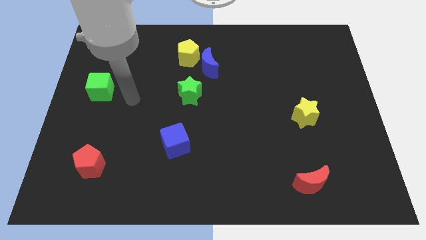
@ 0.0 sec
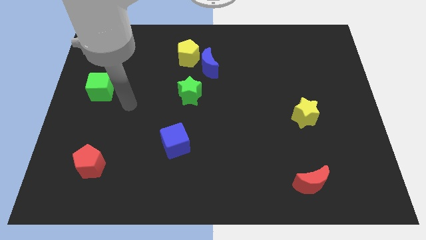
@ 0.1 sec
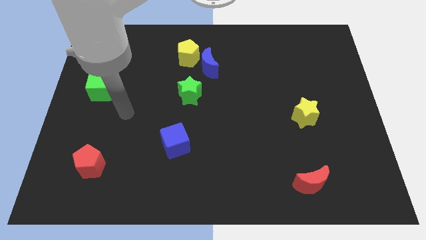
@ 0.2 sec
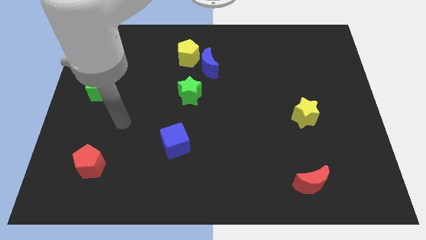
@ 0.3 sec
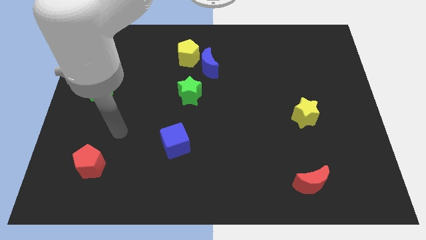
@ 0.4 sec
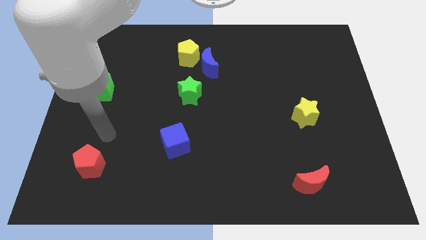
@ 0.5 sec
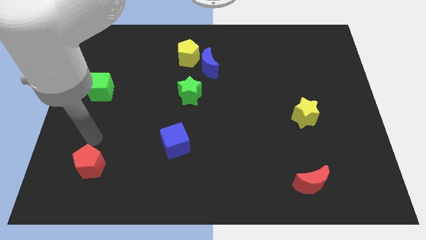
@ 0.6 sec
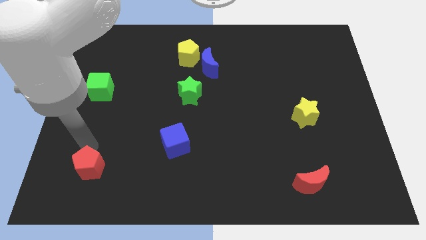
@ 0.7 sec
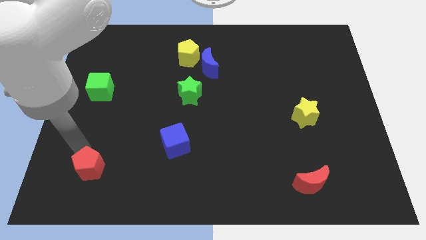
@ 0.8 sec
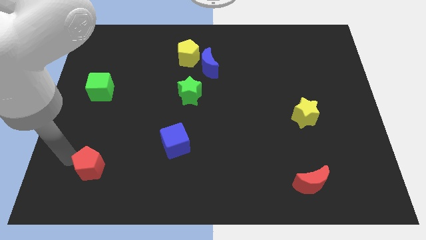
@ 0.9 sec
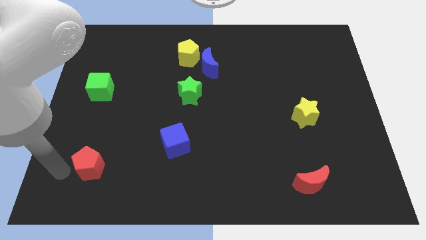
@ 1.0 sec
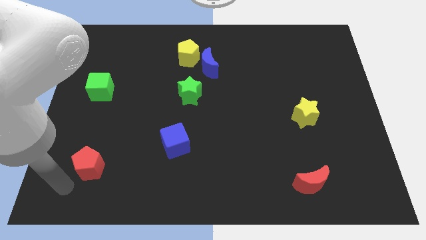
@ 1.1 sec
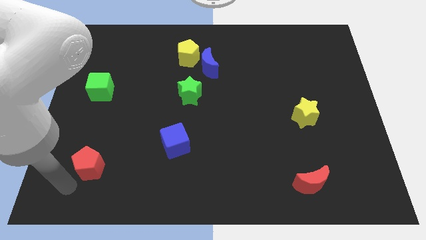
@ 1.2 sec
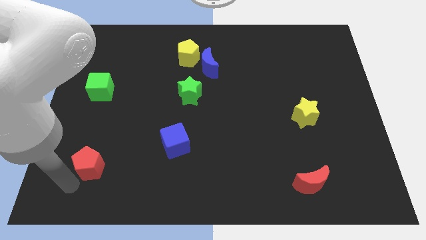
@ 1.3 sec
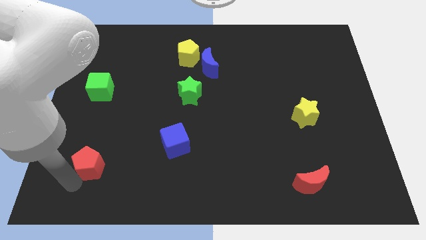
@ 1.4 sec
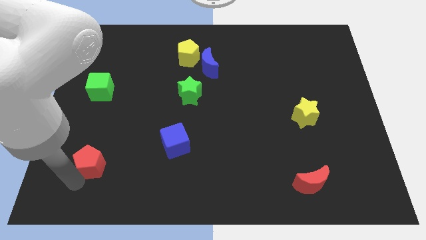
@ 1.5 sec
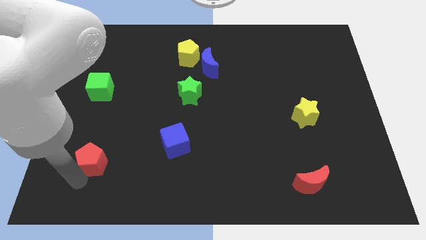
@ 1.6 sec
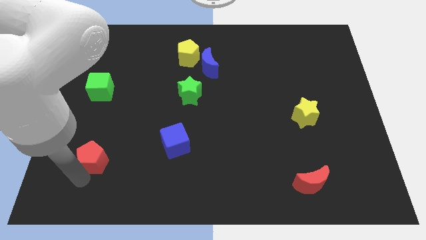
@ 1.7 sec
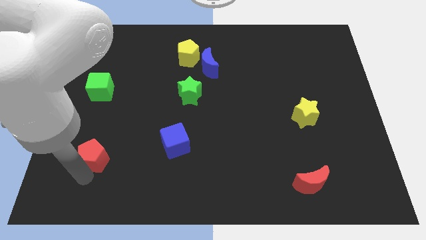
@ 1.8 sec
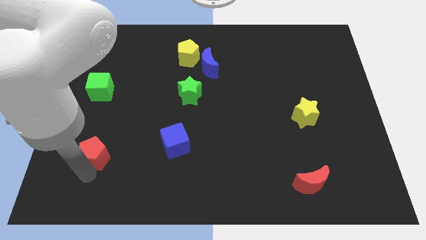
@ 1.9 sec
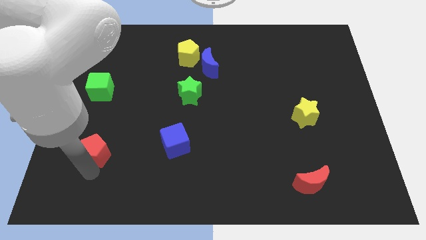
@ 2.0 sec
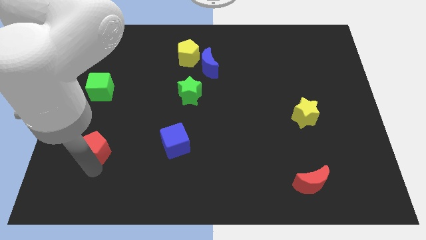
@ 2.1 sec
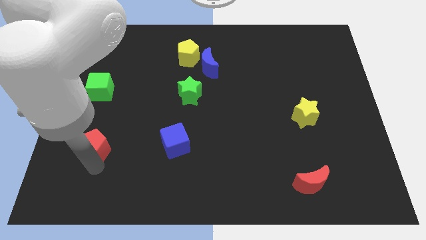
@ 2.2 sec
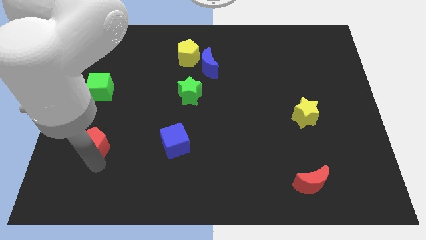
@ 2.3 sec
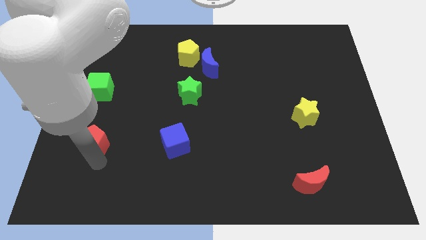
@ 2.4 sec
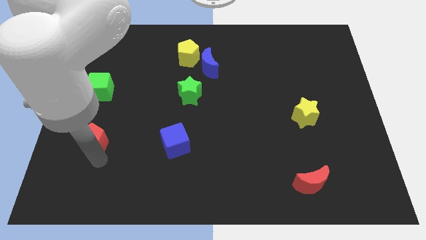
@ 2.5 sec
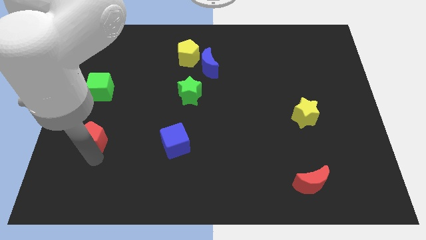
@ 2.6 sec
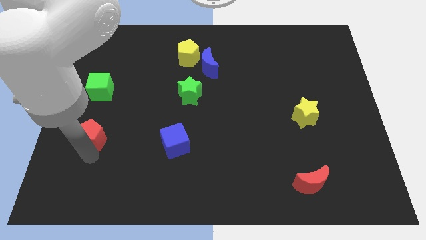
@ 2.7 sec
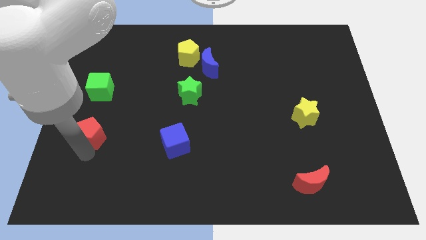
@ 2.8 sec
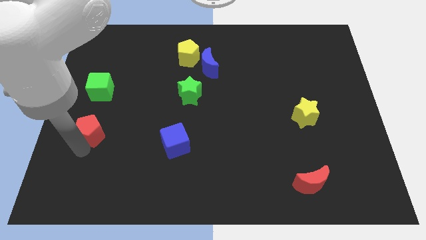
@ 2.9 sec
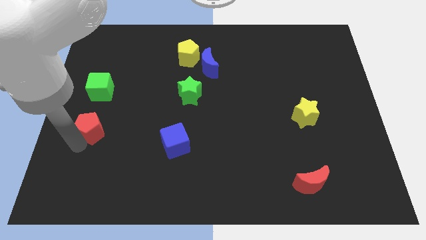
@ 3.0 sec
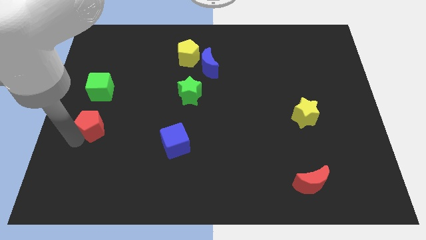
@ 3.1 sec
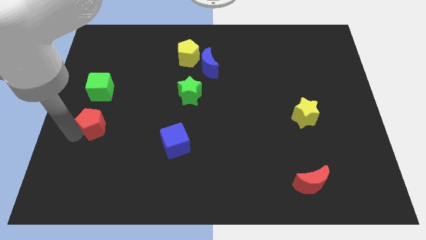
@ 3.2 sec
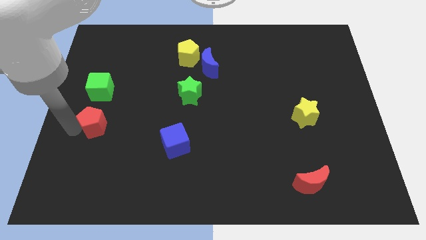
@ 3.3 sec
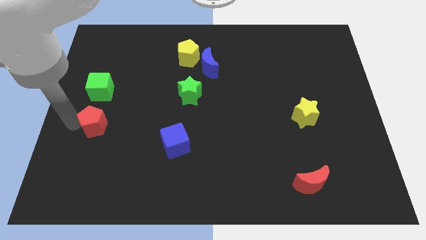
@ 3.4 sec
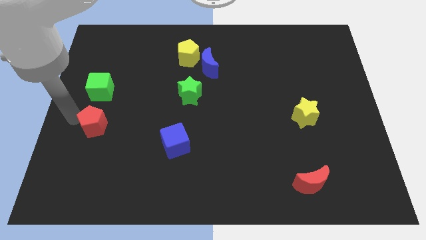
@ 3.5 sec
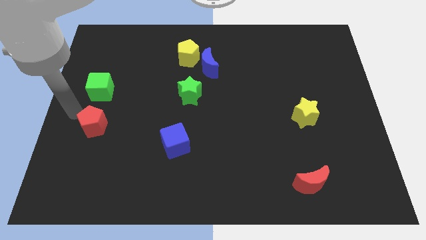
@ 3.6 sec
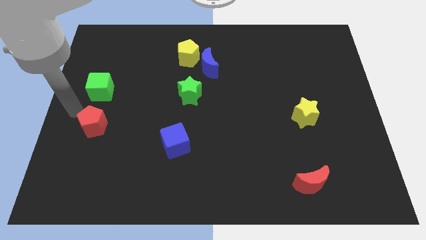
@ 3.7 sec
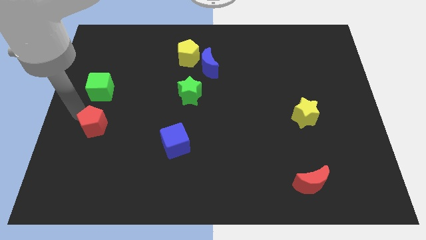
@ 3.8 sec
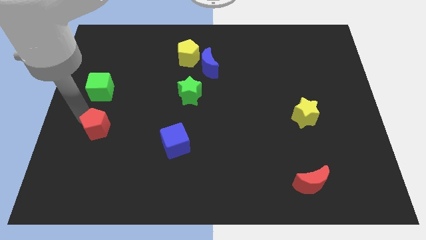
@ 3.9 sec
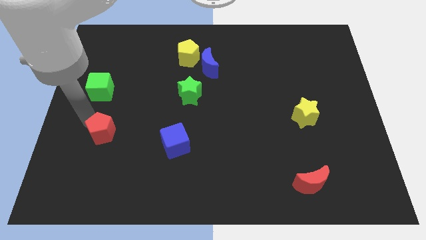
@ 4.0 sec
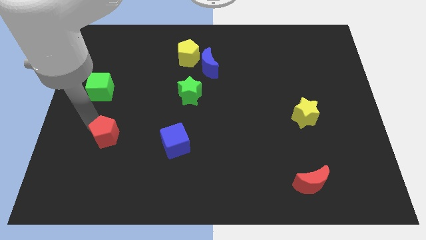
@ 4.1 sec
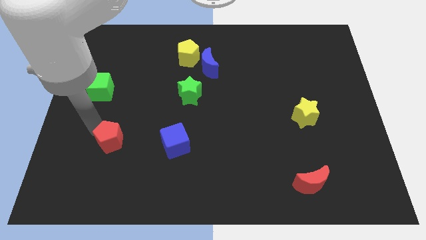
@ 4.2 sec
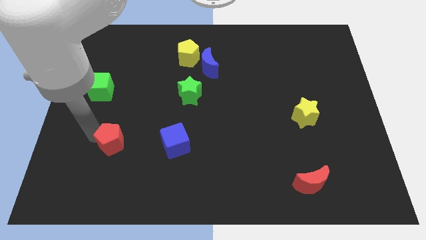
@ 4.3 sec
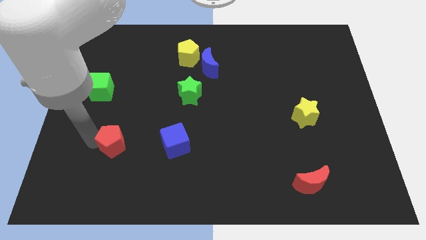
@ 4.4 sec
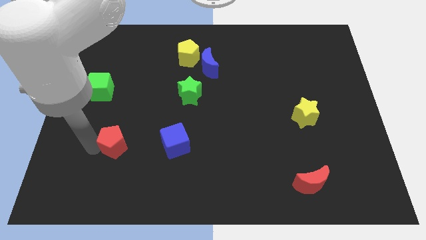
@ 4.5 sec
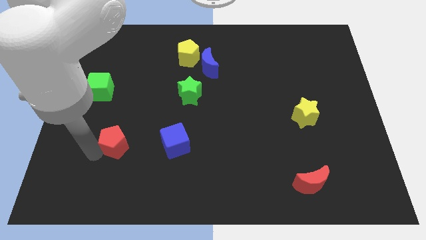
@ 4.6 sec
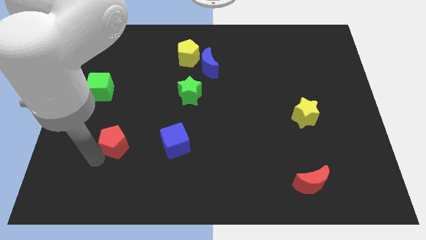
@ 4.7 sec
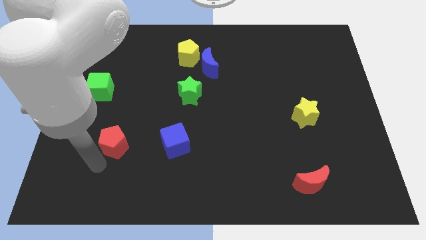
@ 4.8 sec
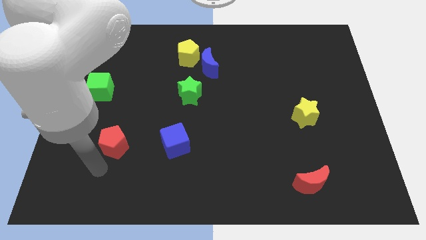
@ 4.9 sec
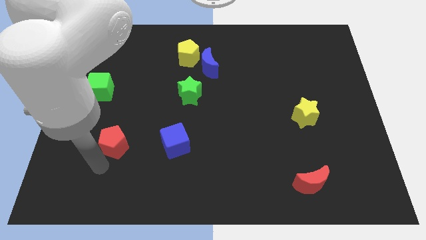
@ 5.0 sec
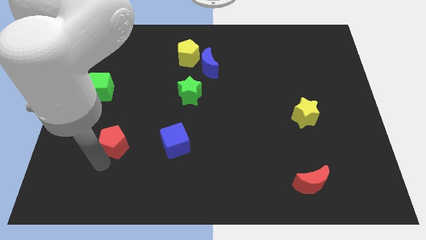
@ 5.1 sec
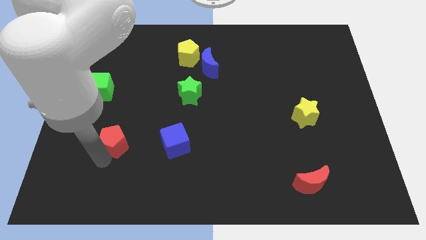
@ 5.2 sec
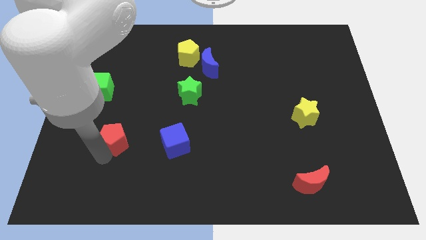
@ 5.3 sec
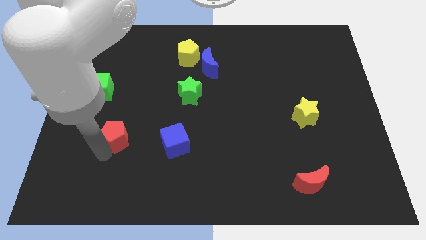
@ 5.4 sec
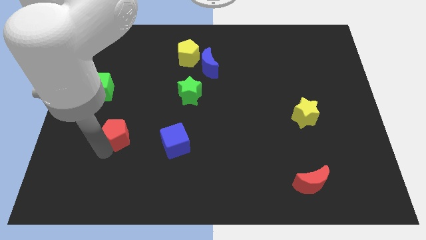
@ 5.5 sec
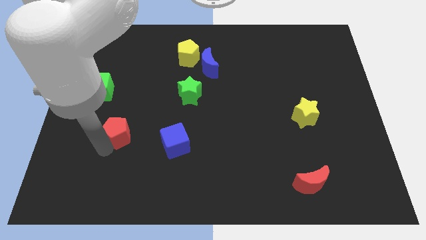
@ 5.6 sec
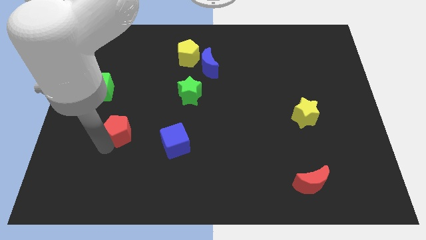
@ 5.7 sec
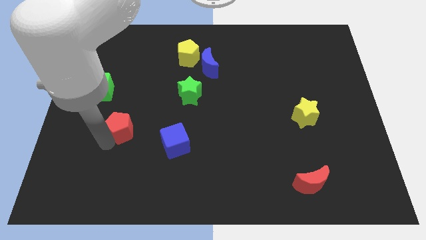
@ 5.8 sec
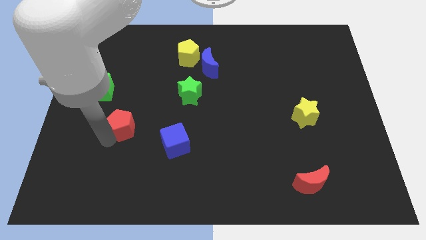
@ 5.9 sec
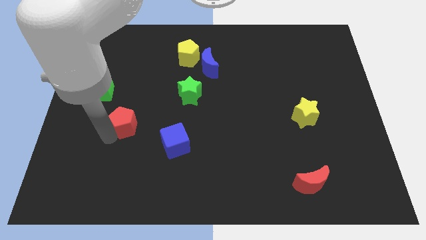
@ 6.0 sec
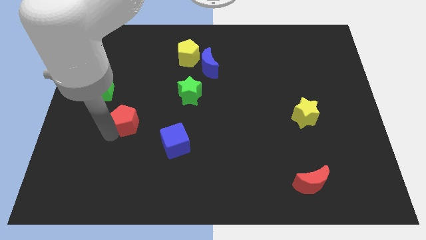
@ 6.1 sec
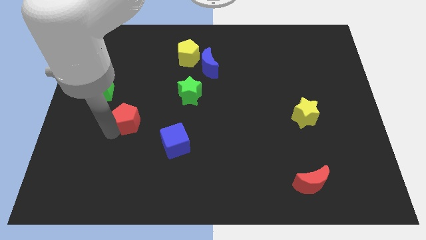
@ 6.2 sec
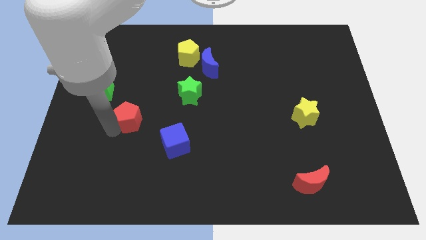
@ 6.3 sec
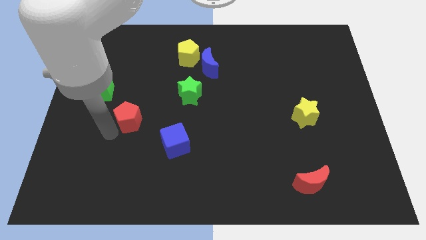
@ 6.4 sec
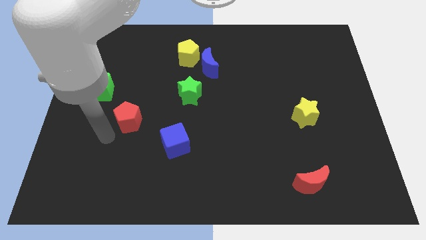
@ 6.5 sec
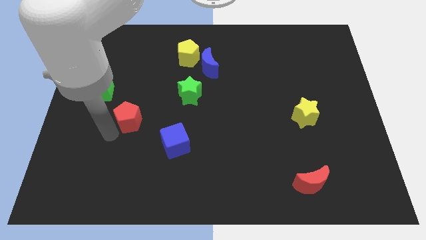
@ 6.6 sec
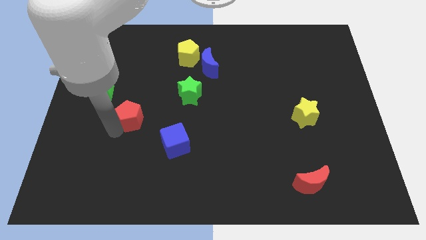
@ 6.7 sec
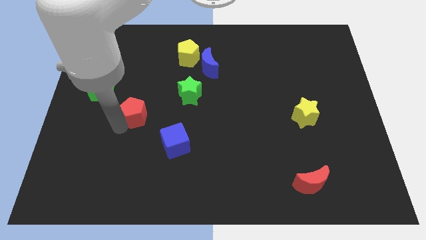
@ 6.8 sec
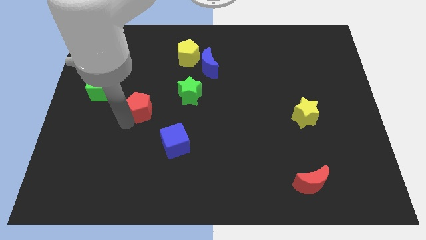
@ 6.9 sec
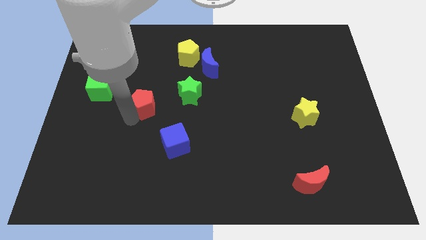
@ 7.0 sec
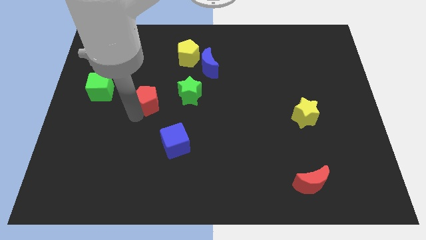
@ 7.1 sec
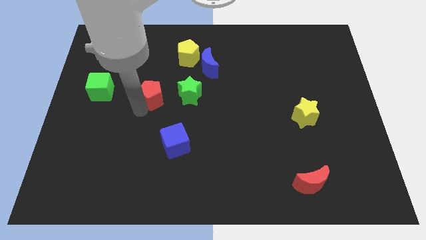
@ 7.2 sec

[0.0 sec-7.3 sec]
slide the red pentagon upwards and to the right diagonally

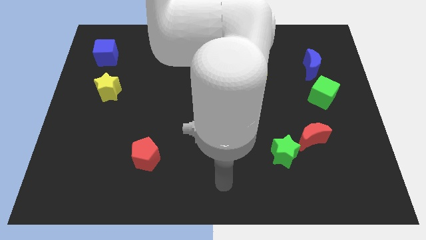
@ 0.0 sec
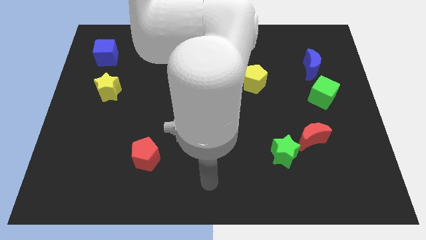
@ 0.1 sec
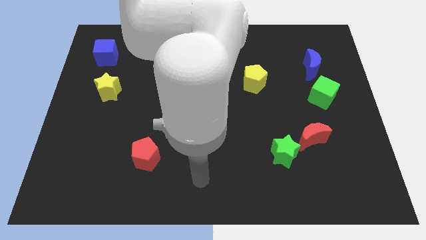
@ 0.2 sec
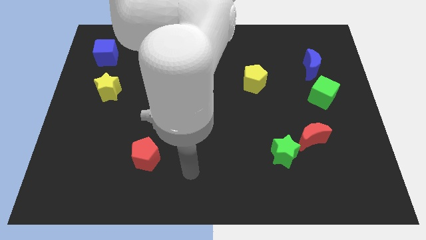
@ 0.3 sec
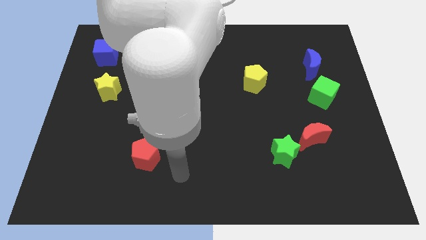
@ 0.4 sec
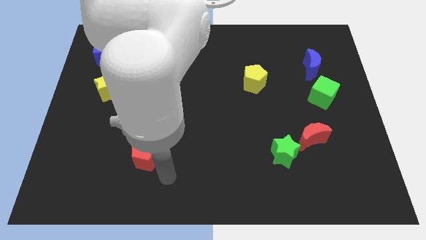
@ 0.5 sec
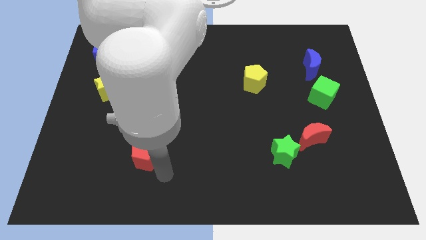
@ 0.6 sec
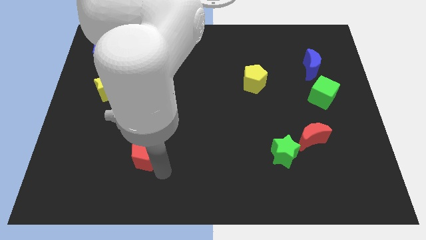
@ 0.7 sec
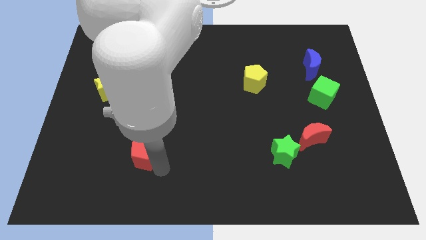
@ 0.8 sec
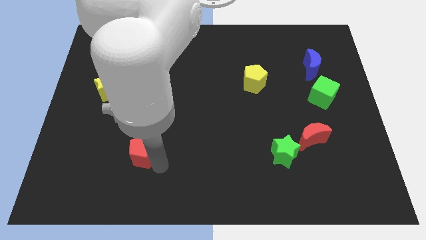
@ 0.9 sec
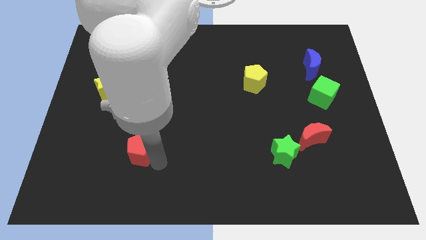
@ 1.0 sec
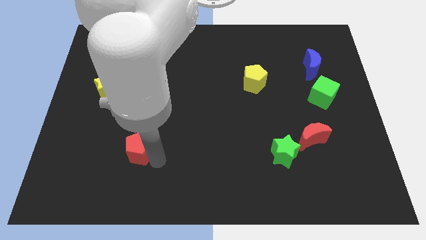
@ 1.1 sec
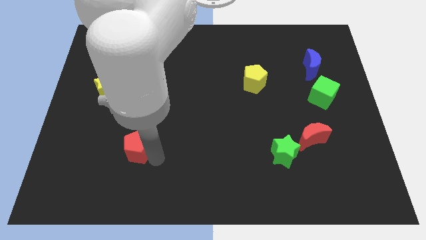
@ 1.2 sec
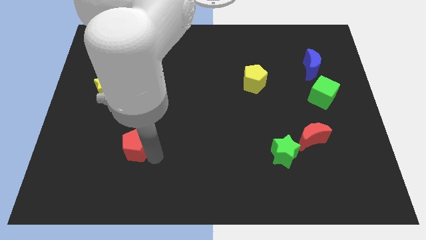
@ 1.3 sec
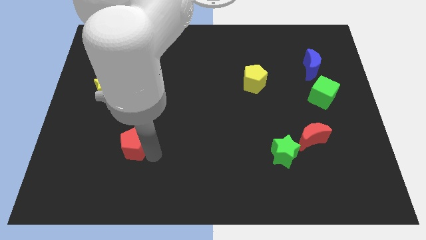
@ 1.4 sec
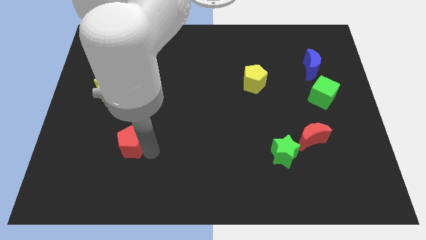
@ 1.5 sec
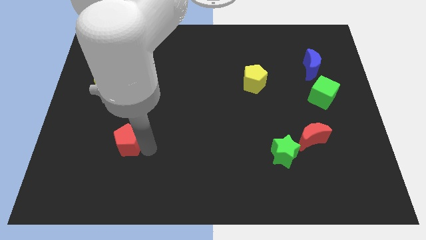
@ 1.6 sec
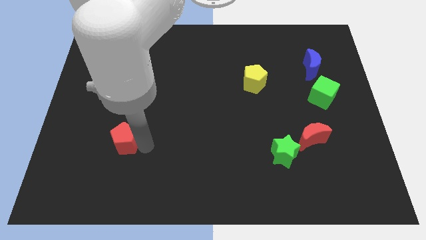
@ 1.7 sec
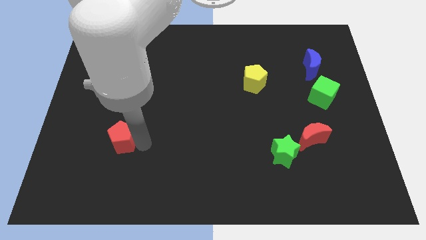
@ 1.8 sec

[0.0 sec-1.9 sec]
slide the red pentagon up and left somewhat
